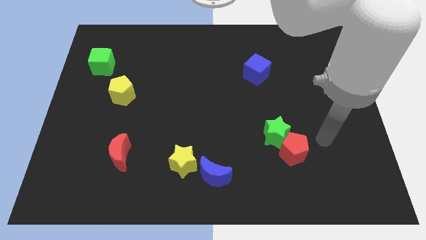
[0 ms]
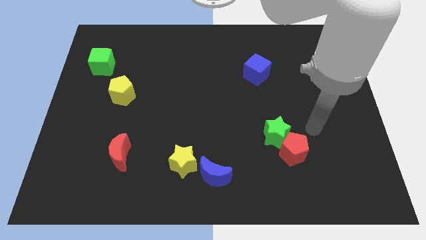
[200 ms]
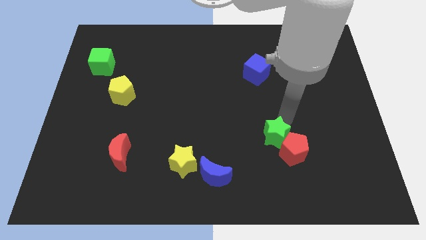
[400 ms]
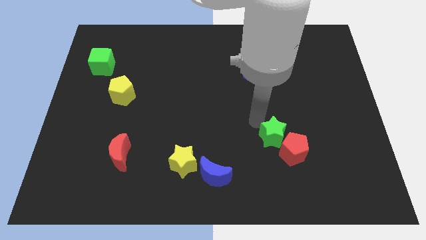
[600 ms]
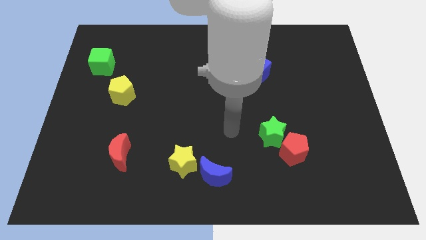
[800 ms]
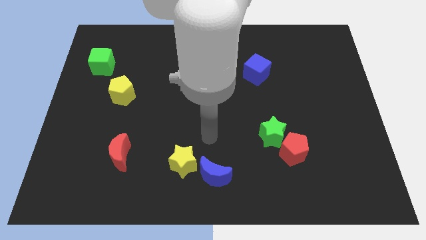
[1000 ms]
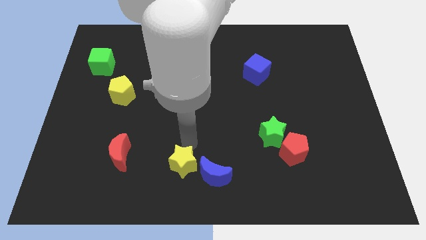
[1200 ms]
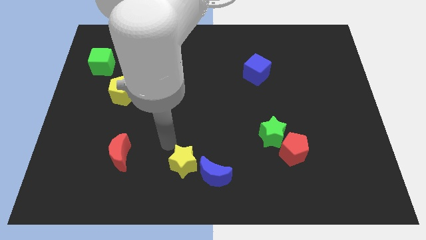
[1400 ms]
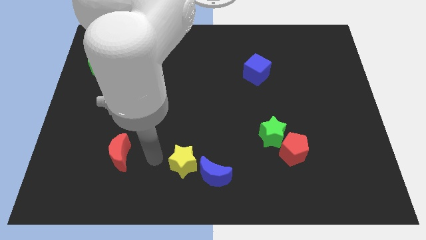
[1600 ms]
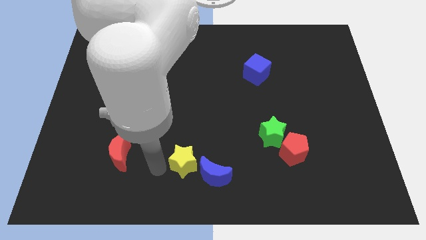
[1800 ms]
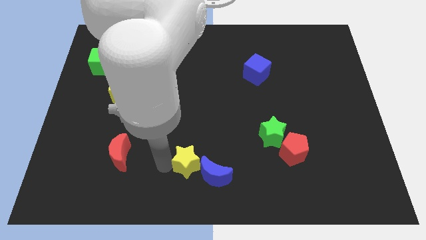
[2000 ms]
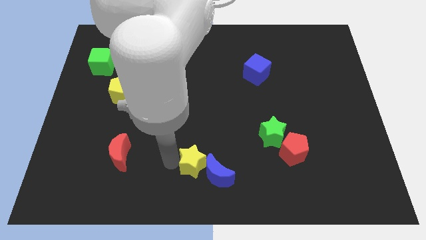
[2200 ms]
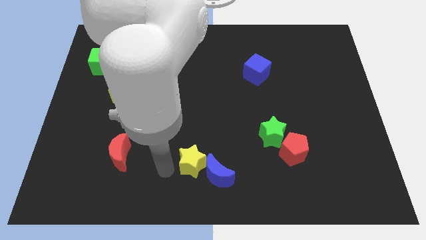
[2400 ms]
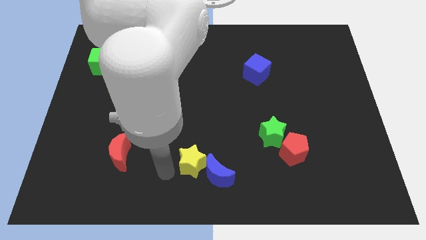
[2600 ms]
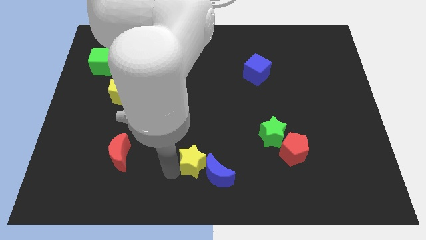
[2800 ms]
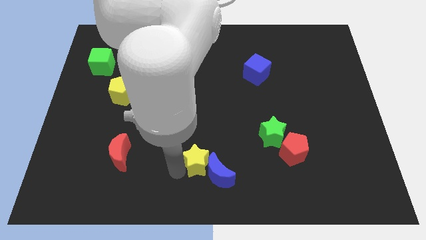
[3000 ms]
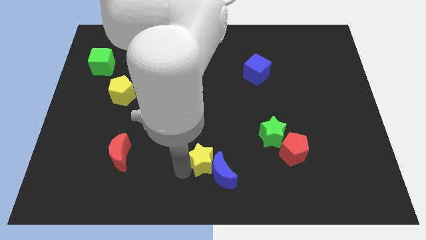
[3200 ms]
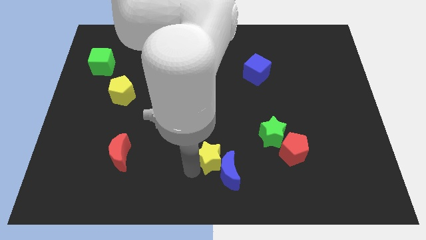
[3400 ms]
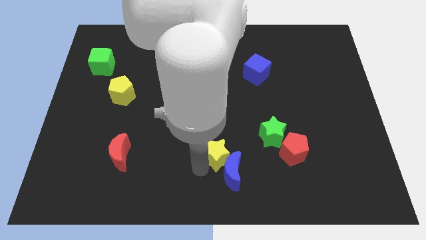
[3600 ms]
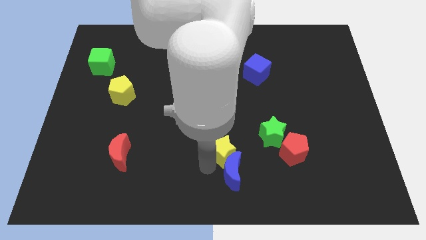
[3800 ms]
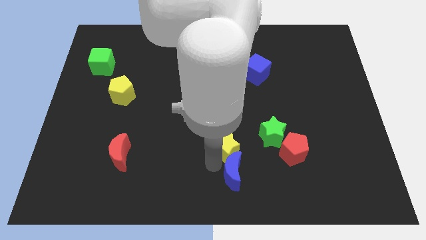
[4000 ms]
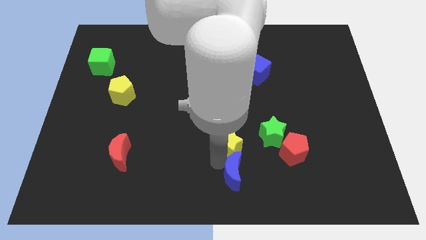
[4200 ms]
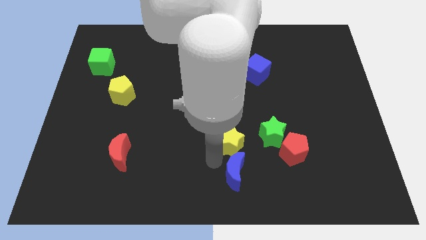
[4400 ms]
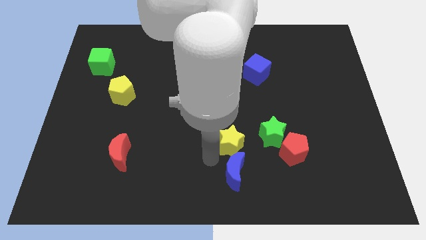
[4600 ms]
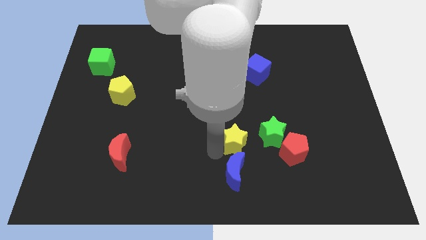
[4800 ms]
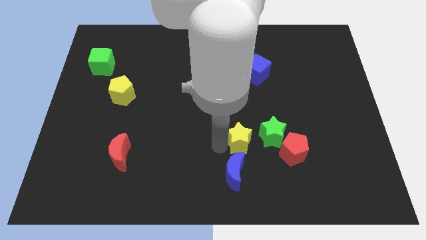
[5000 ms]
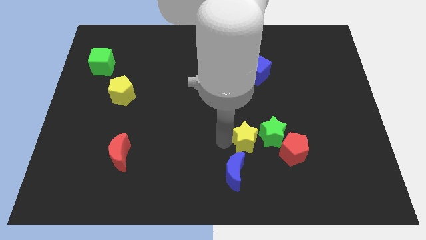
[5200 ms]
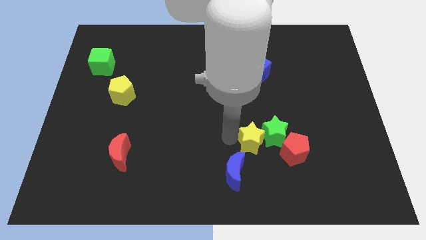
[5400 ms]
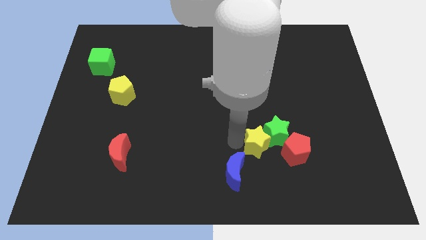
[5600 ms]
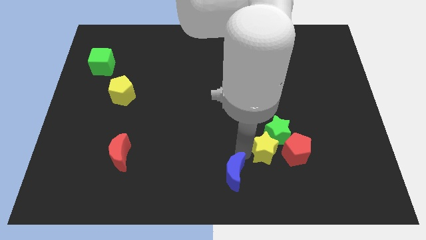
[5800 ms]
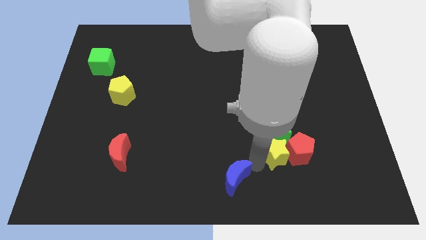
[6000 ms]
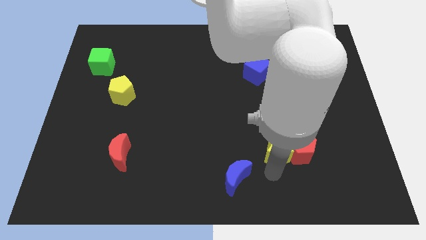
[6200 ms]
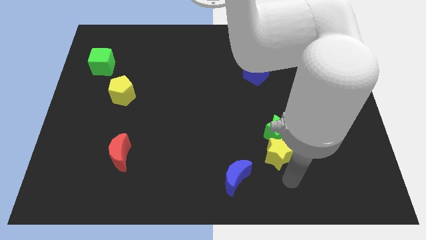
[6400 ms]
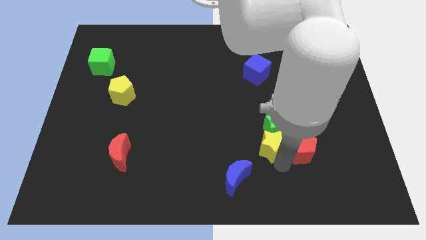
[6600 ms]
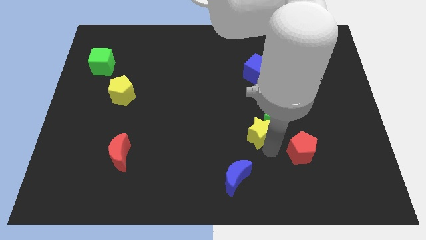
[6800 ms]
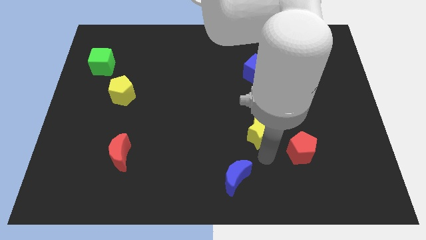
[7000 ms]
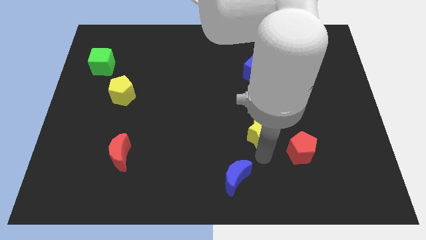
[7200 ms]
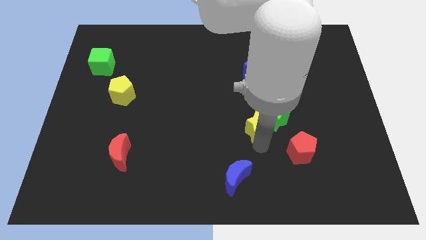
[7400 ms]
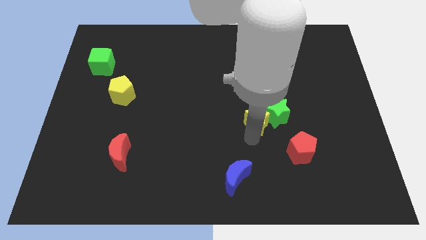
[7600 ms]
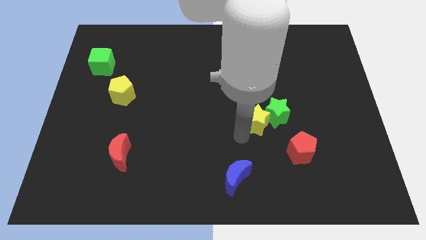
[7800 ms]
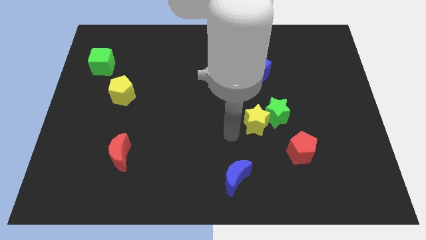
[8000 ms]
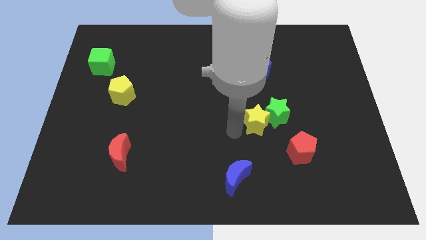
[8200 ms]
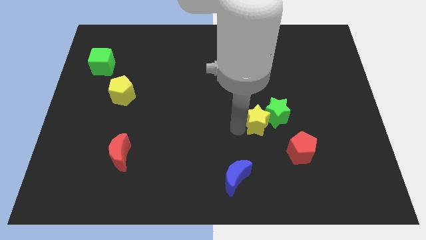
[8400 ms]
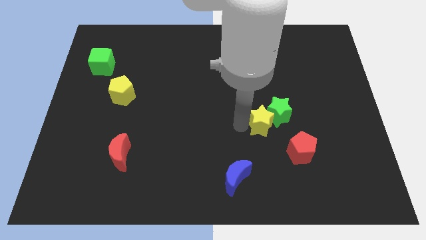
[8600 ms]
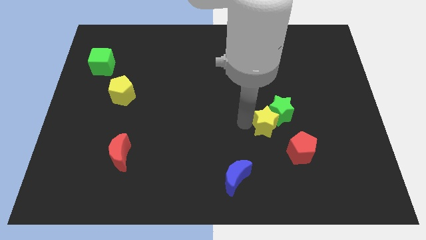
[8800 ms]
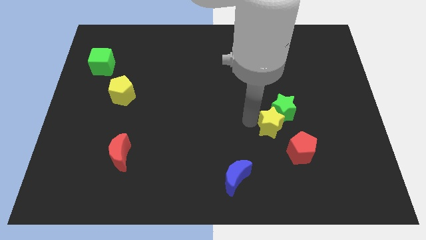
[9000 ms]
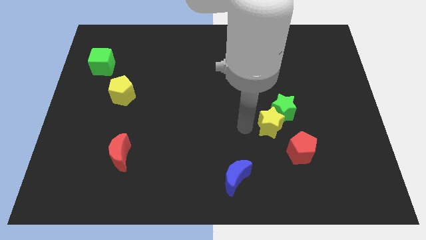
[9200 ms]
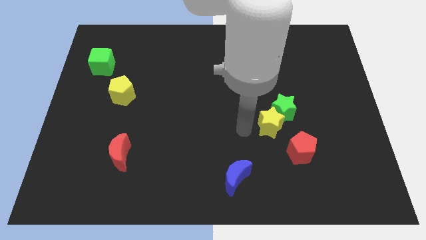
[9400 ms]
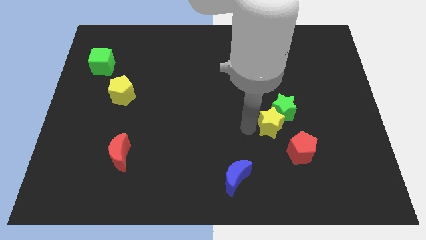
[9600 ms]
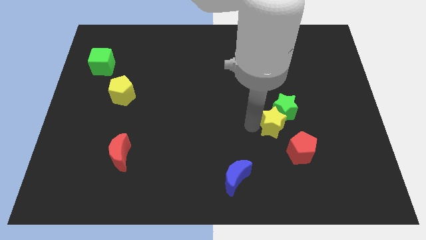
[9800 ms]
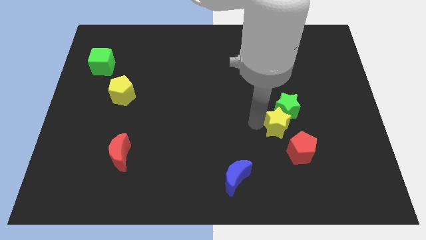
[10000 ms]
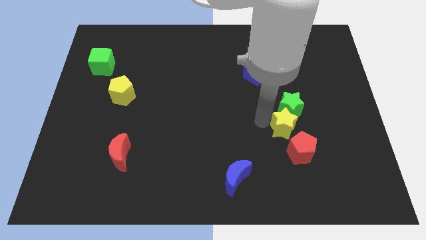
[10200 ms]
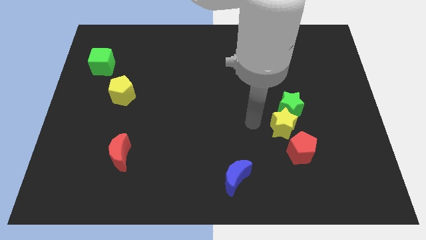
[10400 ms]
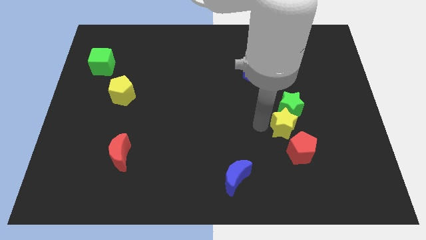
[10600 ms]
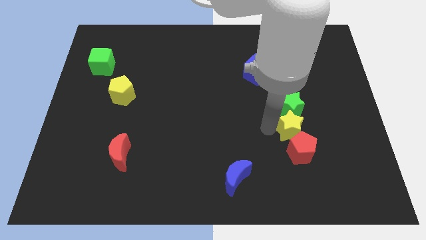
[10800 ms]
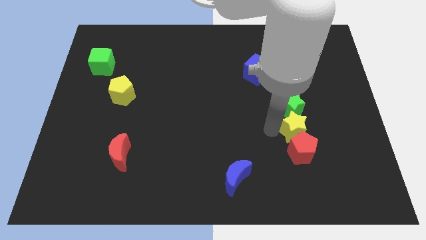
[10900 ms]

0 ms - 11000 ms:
push the yellow star to the top right of the red pentagon

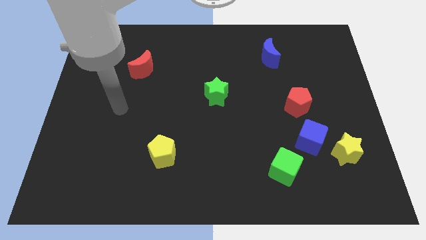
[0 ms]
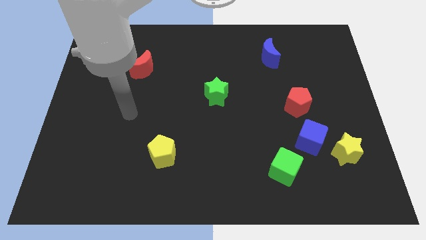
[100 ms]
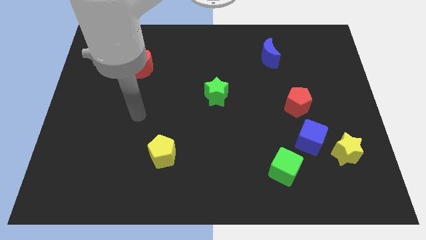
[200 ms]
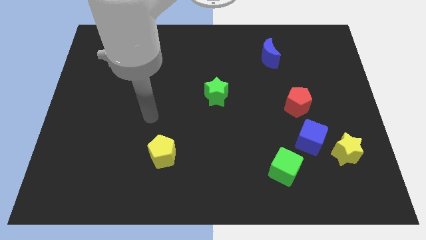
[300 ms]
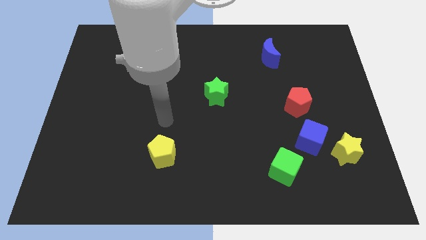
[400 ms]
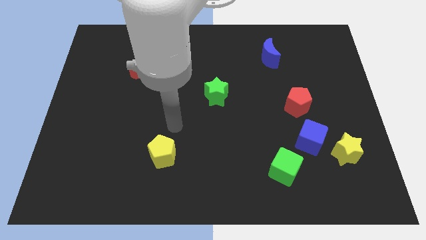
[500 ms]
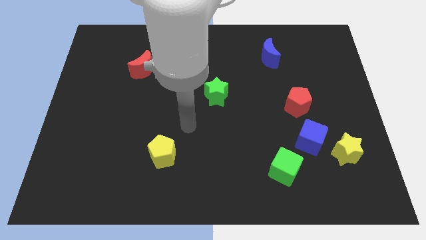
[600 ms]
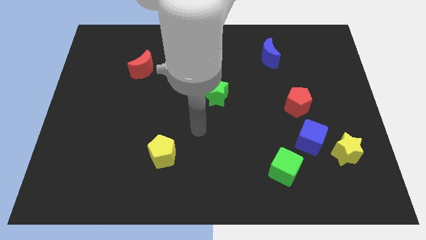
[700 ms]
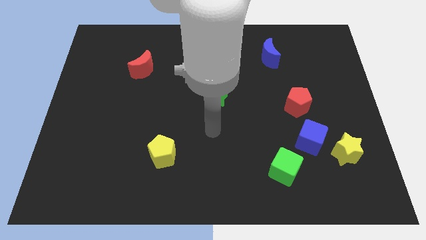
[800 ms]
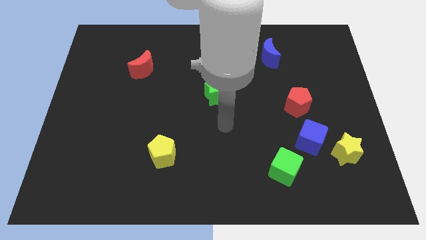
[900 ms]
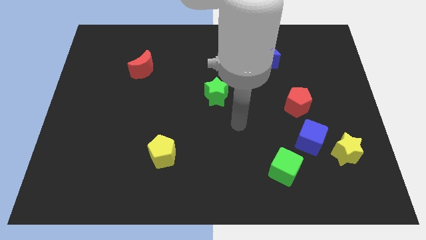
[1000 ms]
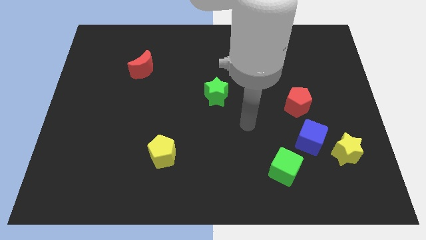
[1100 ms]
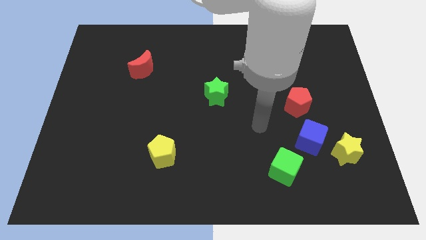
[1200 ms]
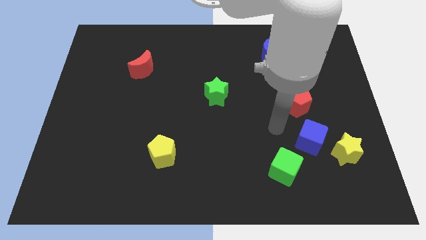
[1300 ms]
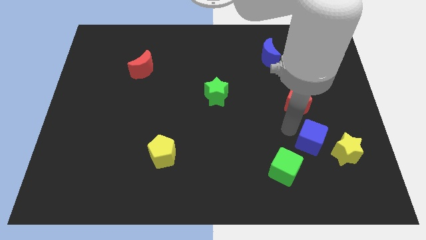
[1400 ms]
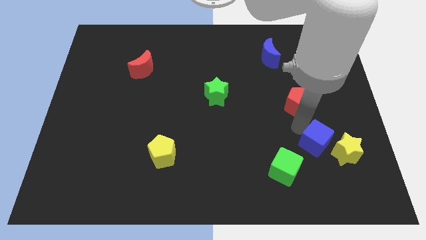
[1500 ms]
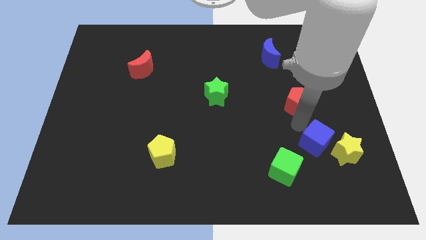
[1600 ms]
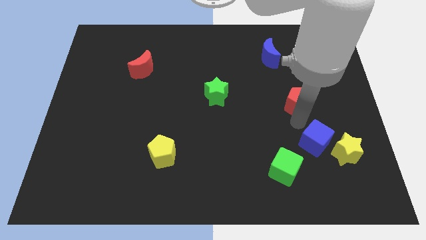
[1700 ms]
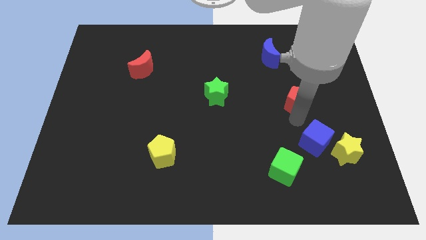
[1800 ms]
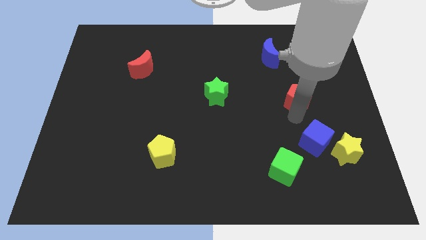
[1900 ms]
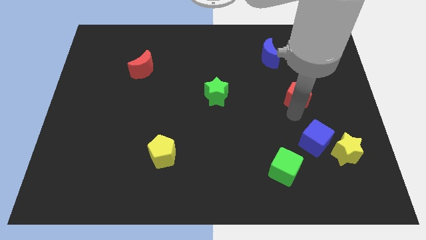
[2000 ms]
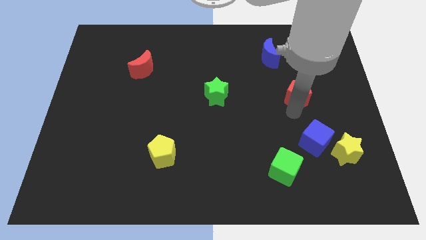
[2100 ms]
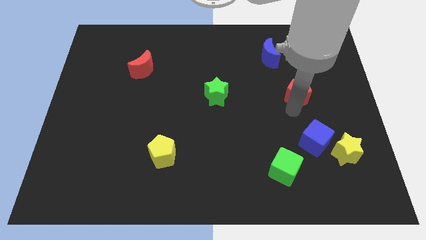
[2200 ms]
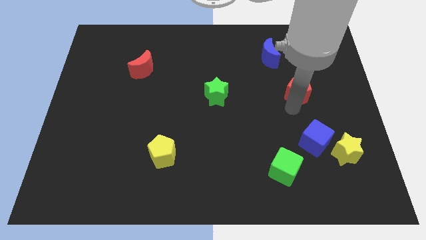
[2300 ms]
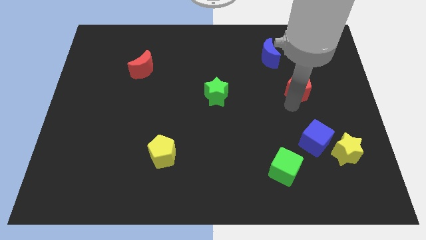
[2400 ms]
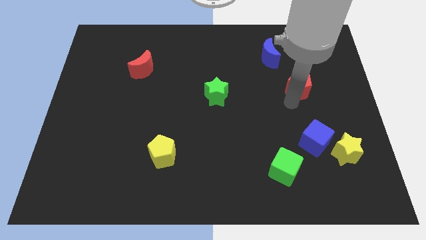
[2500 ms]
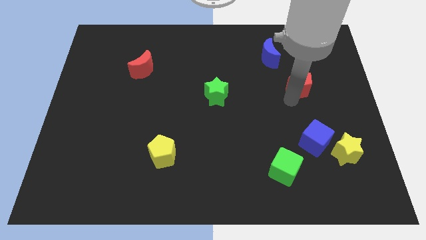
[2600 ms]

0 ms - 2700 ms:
slide the red pentagon to the bottom right side of the blue moon
